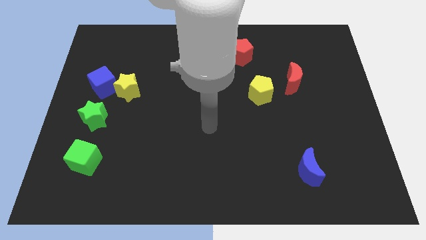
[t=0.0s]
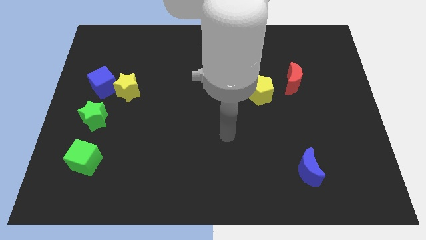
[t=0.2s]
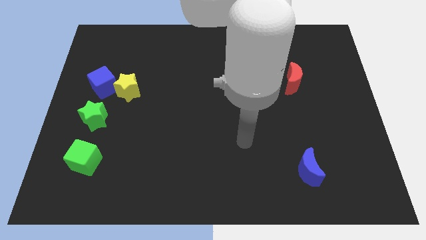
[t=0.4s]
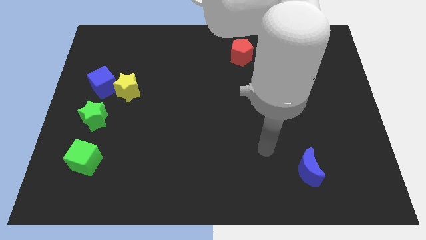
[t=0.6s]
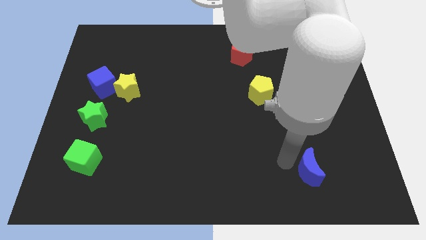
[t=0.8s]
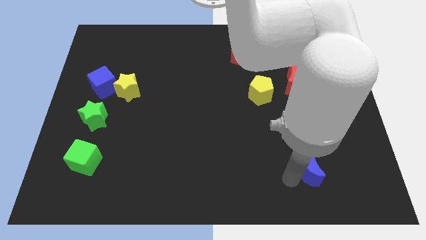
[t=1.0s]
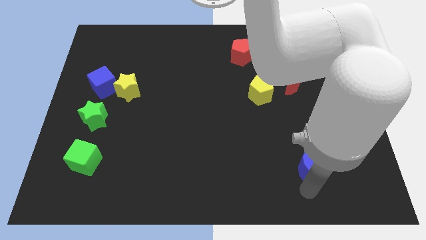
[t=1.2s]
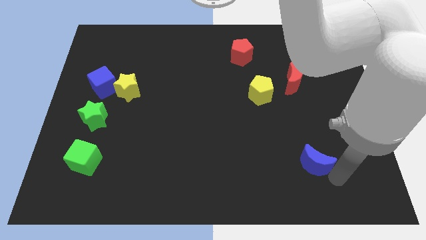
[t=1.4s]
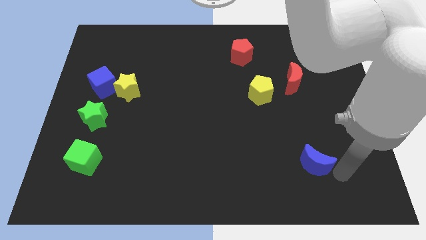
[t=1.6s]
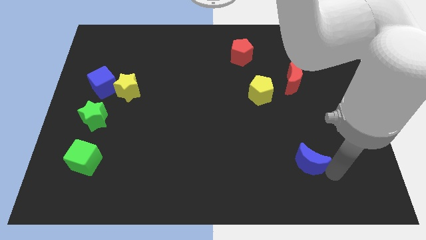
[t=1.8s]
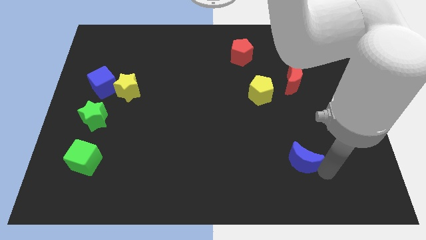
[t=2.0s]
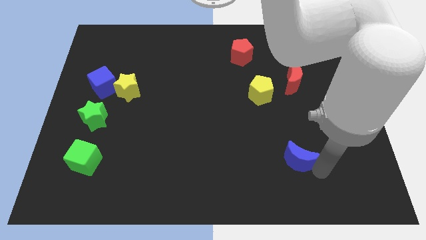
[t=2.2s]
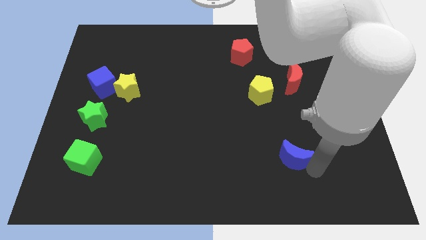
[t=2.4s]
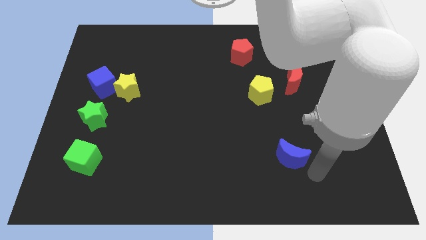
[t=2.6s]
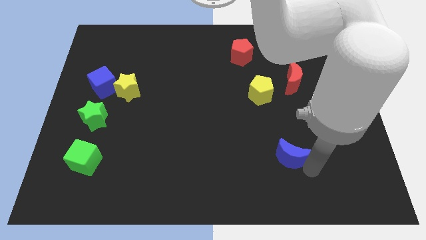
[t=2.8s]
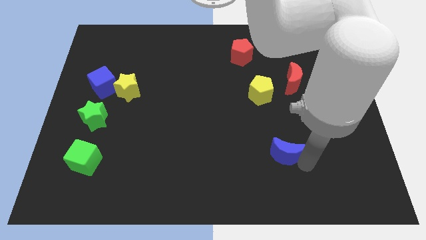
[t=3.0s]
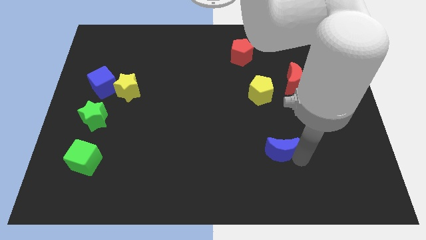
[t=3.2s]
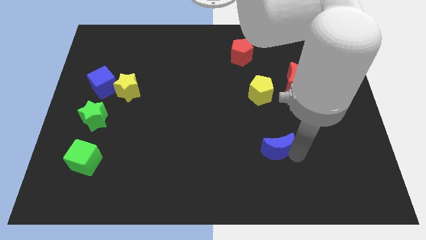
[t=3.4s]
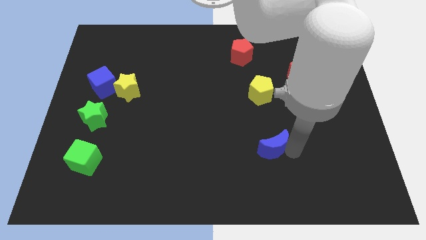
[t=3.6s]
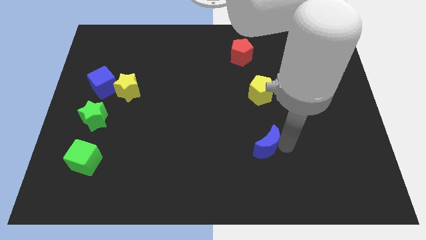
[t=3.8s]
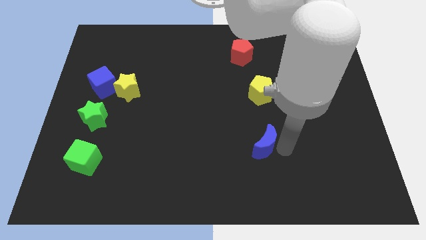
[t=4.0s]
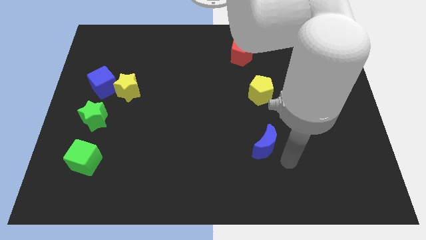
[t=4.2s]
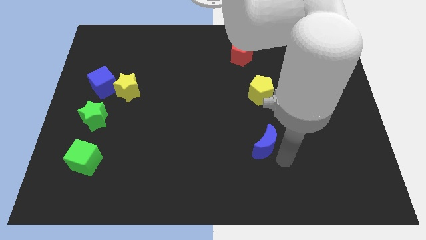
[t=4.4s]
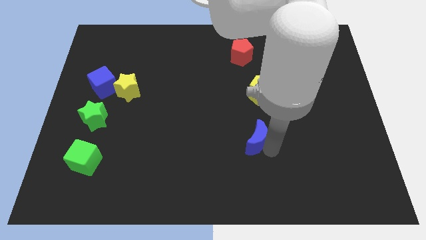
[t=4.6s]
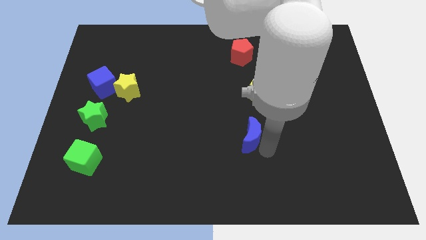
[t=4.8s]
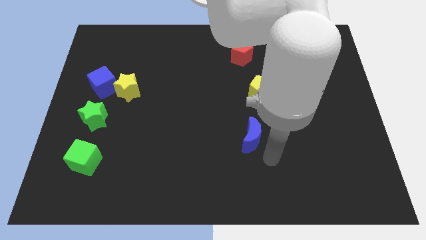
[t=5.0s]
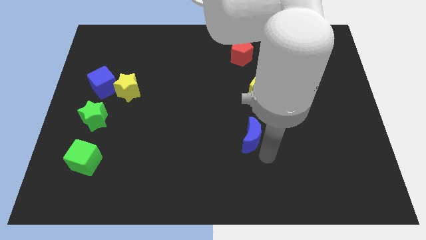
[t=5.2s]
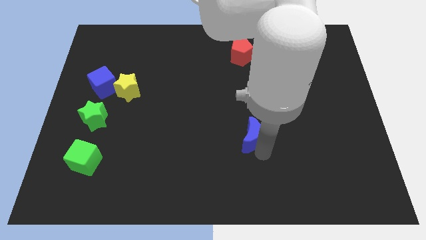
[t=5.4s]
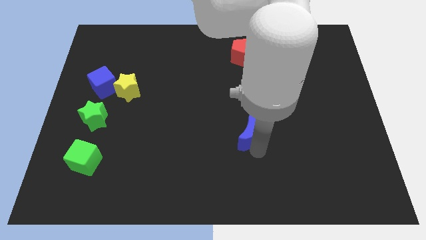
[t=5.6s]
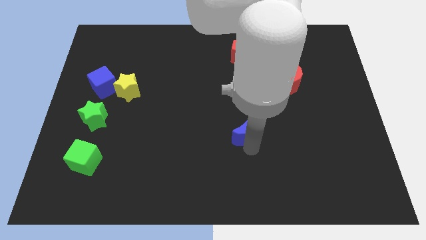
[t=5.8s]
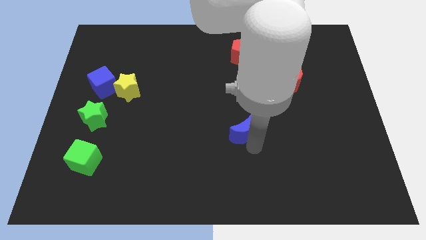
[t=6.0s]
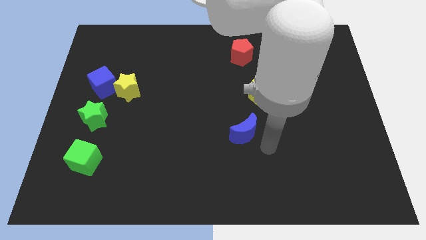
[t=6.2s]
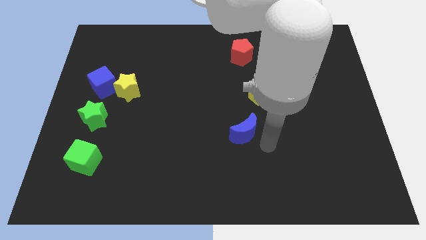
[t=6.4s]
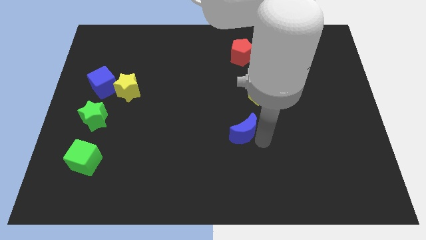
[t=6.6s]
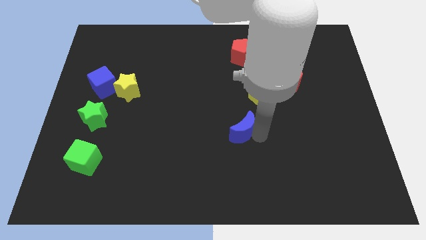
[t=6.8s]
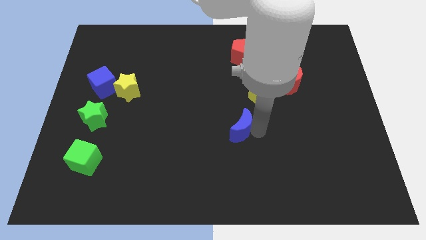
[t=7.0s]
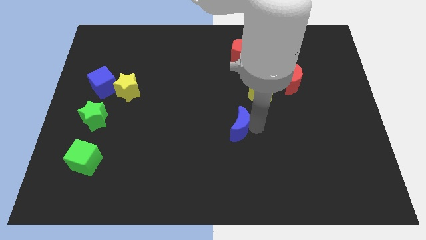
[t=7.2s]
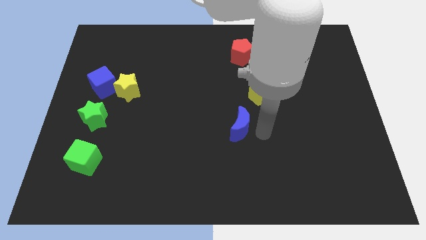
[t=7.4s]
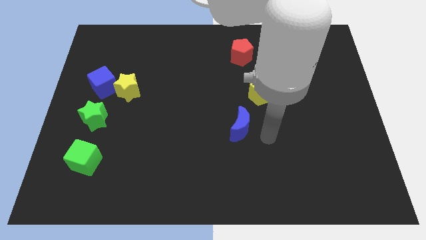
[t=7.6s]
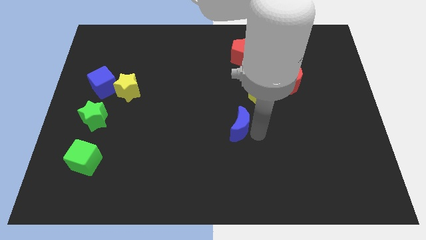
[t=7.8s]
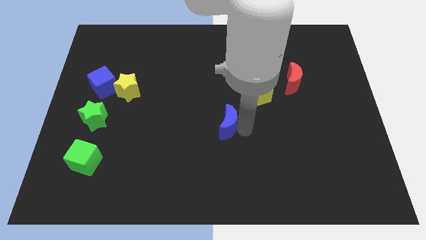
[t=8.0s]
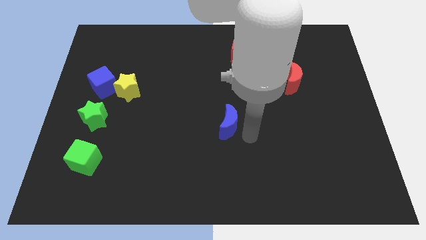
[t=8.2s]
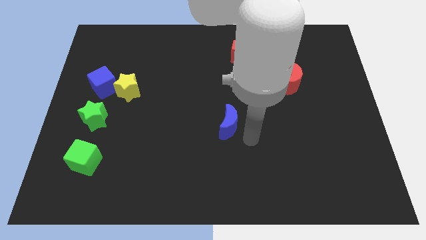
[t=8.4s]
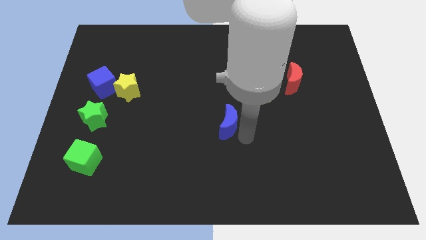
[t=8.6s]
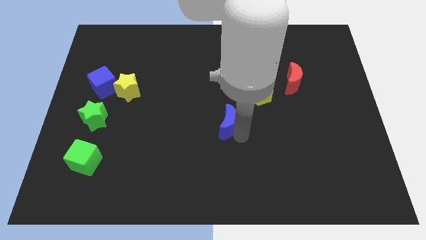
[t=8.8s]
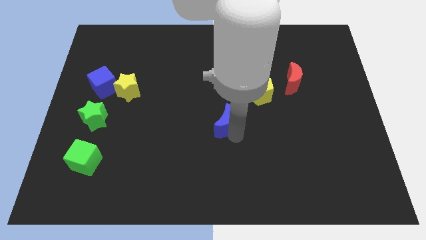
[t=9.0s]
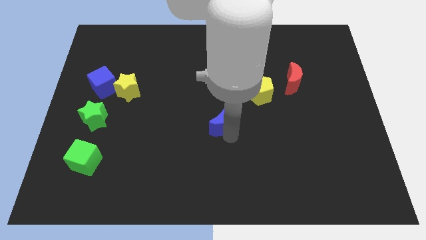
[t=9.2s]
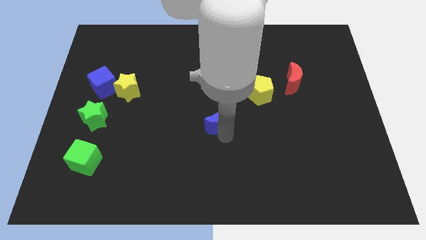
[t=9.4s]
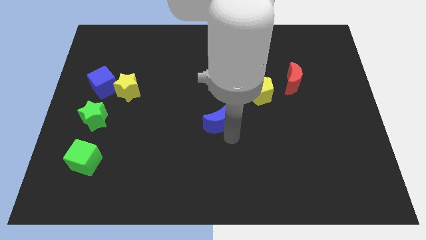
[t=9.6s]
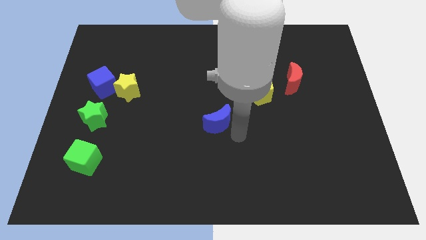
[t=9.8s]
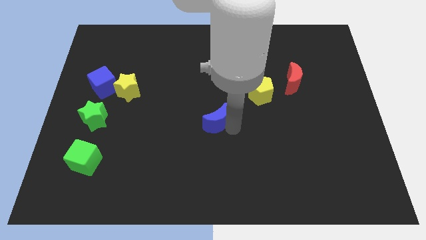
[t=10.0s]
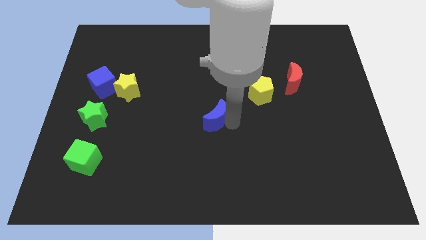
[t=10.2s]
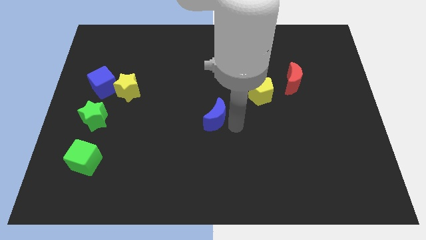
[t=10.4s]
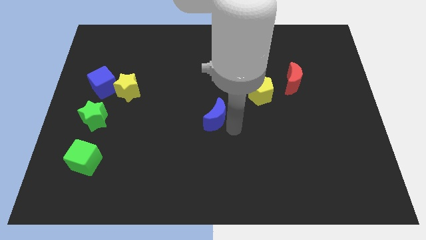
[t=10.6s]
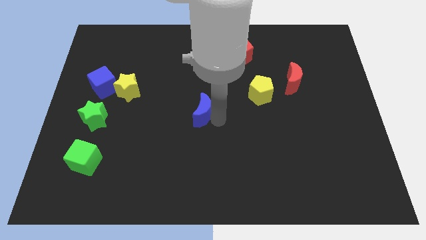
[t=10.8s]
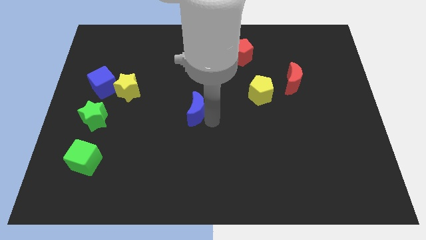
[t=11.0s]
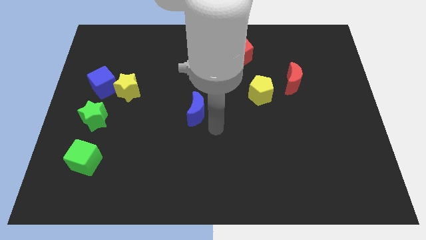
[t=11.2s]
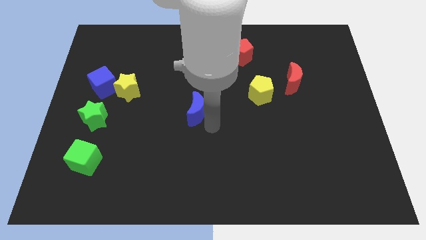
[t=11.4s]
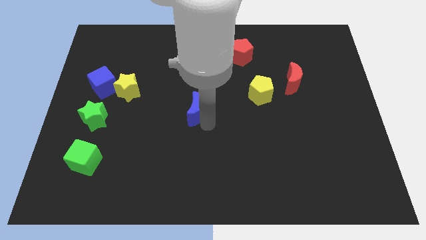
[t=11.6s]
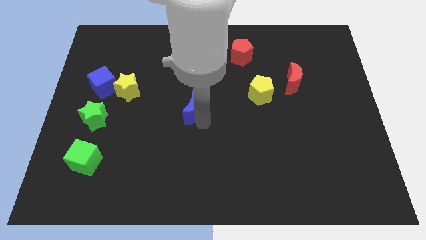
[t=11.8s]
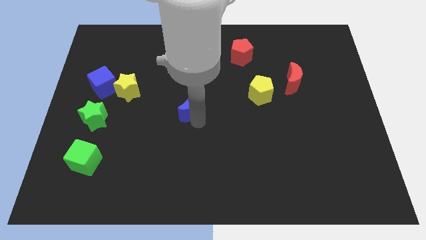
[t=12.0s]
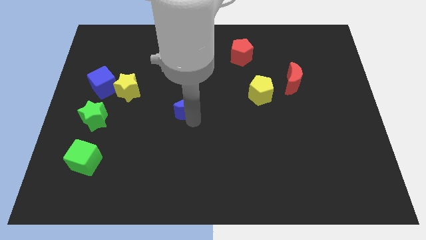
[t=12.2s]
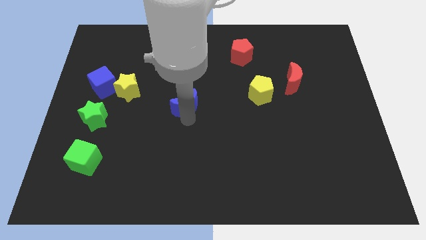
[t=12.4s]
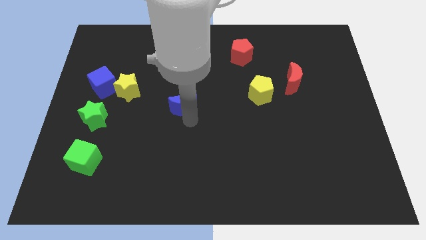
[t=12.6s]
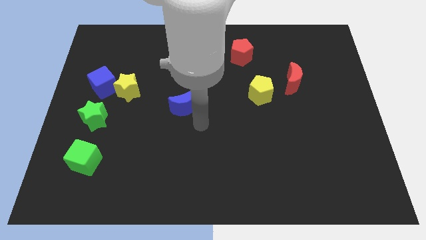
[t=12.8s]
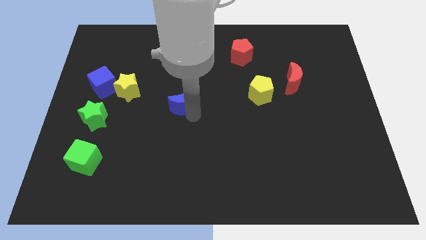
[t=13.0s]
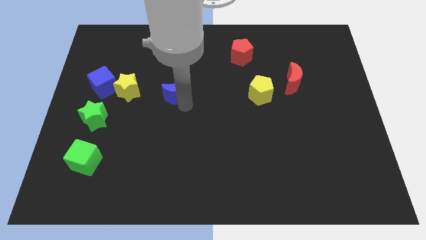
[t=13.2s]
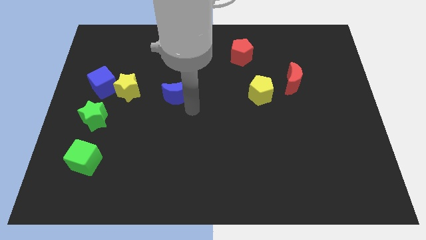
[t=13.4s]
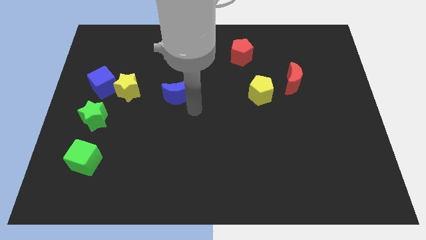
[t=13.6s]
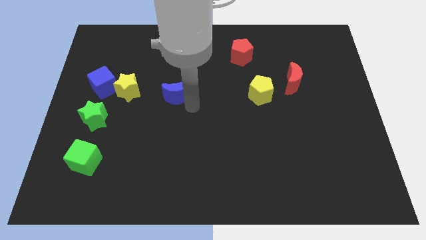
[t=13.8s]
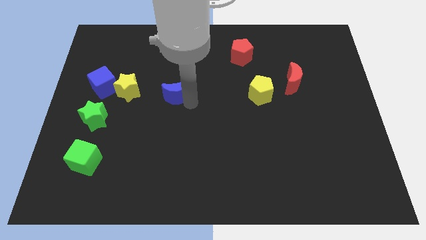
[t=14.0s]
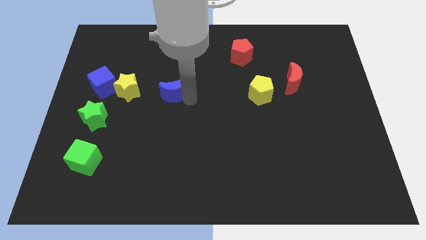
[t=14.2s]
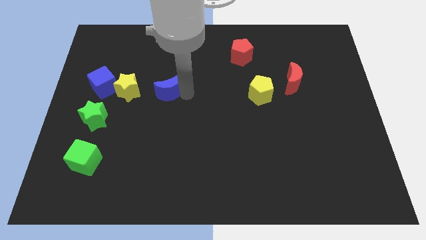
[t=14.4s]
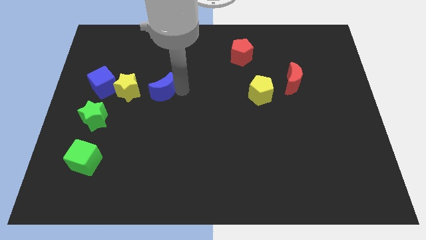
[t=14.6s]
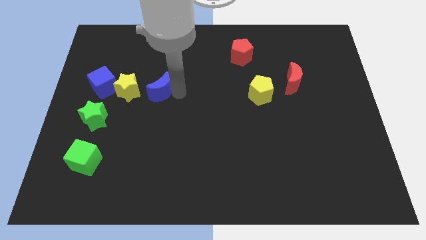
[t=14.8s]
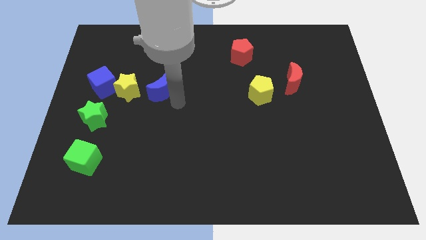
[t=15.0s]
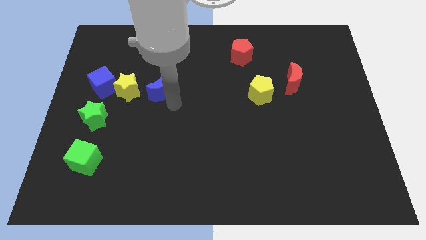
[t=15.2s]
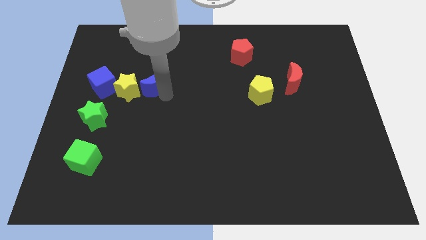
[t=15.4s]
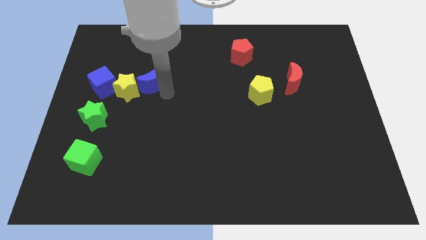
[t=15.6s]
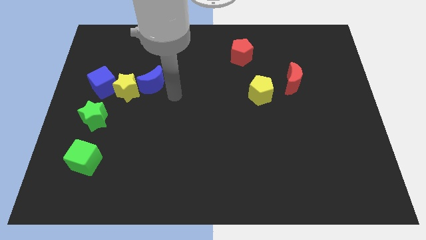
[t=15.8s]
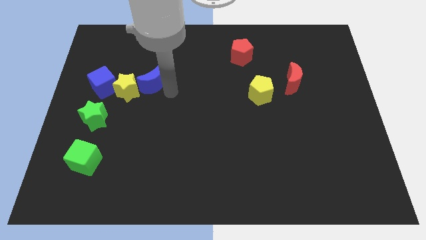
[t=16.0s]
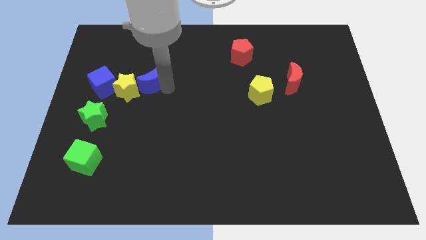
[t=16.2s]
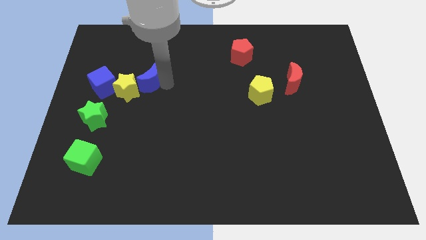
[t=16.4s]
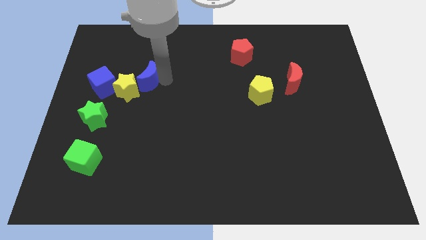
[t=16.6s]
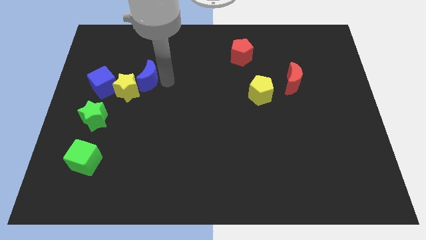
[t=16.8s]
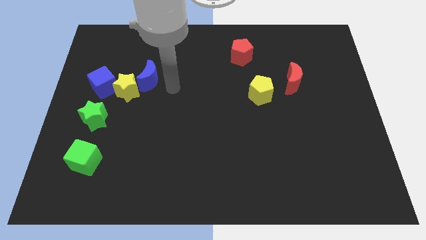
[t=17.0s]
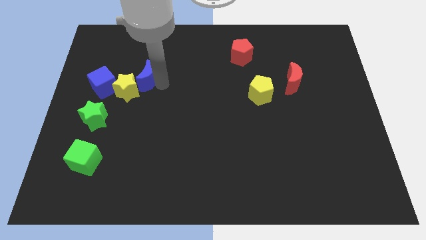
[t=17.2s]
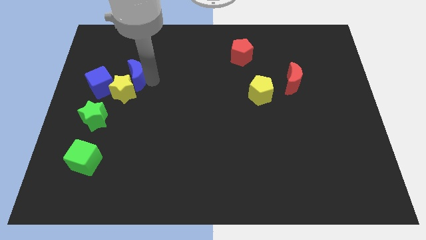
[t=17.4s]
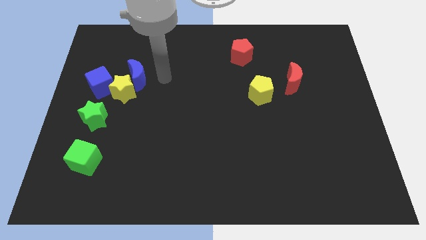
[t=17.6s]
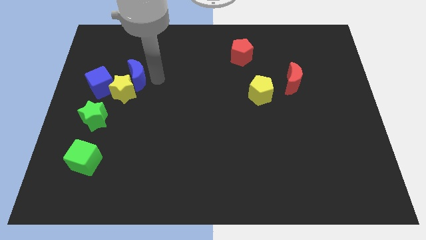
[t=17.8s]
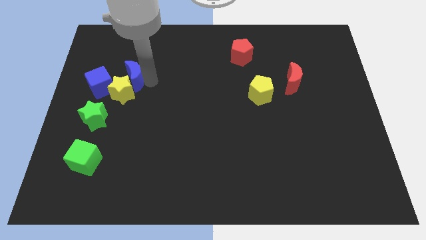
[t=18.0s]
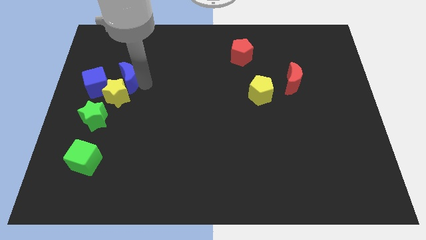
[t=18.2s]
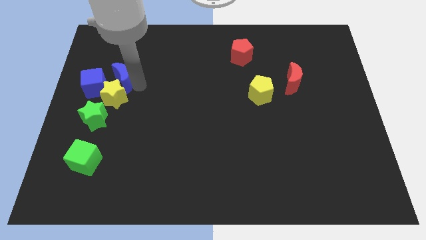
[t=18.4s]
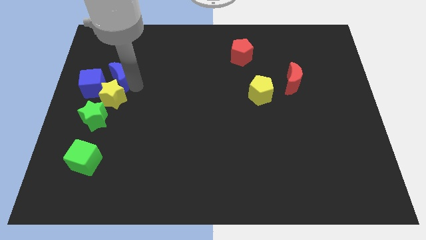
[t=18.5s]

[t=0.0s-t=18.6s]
slide the blue moon to the top left of the yellow star
